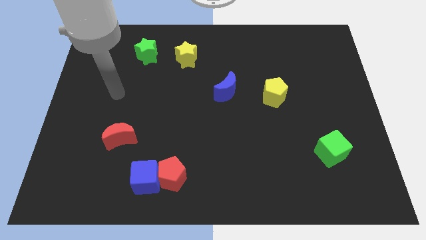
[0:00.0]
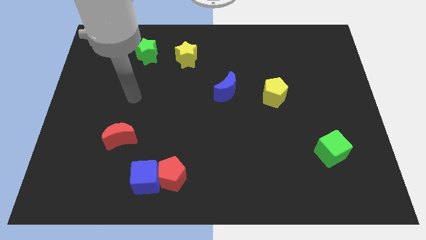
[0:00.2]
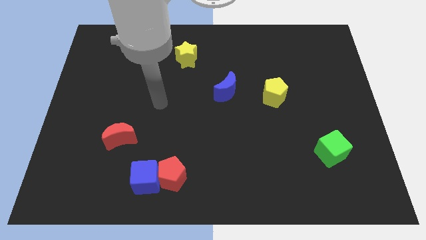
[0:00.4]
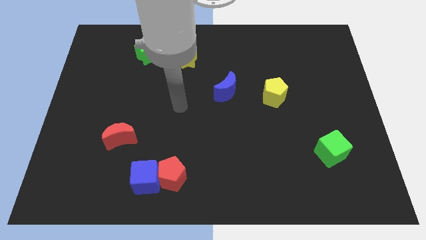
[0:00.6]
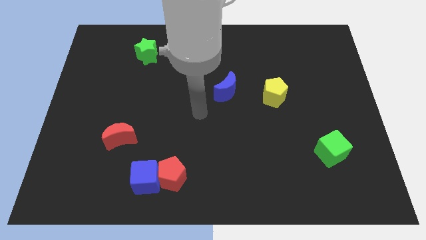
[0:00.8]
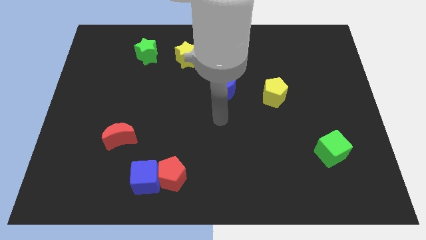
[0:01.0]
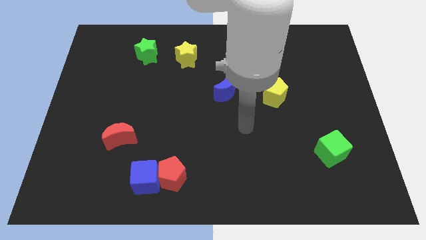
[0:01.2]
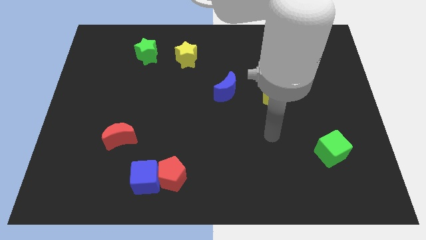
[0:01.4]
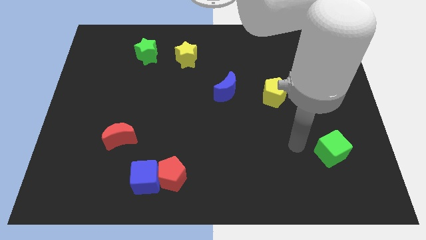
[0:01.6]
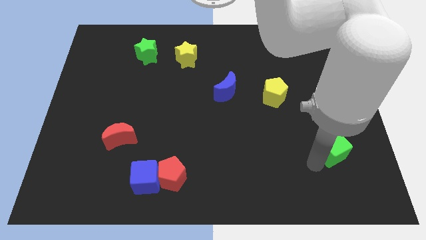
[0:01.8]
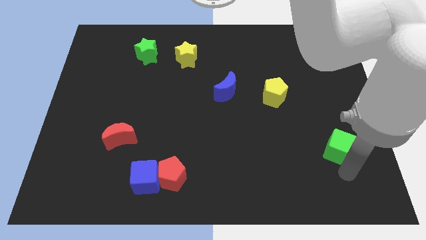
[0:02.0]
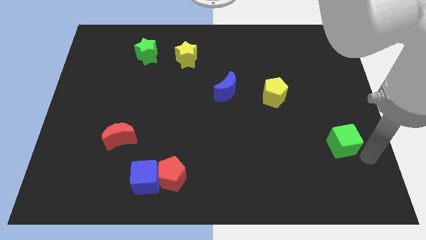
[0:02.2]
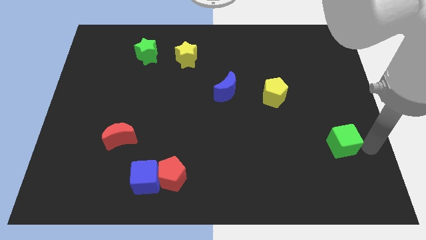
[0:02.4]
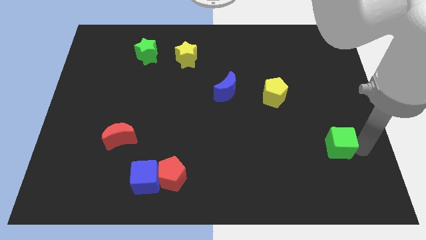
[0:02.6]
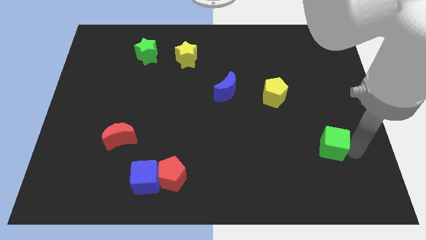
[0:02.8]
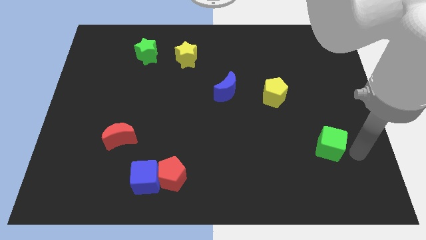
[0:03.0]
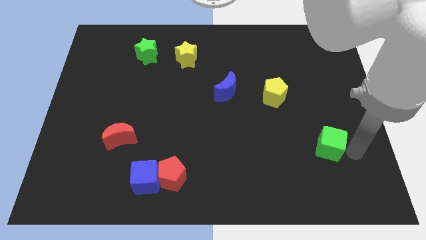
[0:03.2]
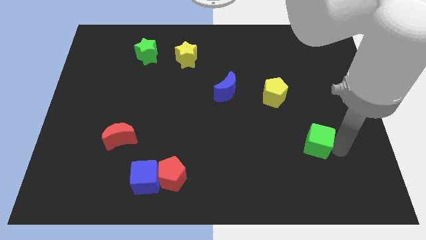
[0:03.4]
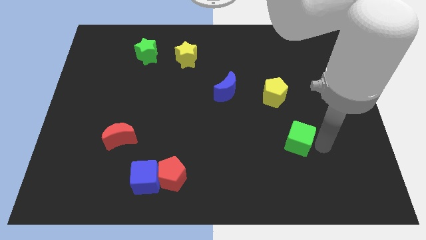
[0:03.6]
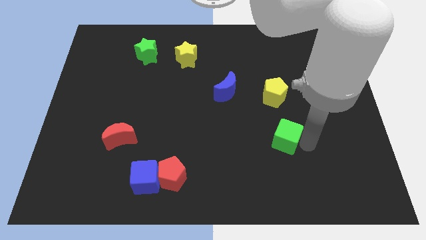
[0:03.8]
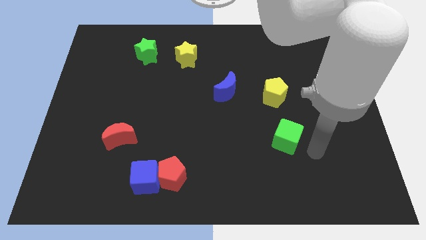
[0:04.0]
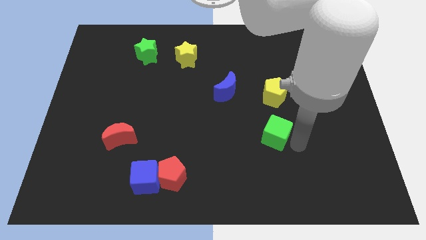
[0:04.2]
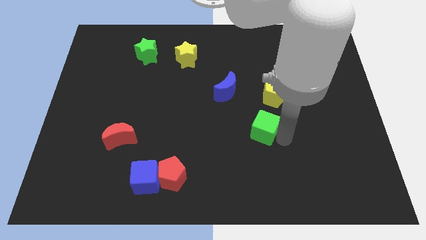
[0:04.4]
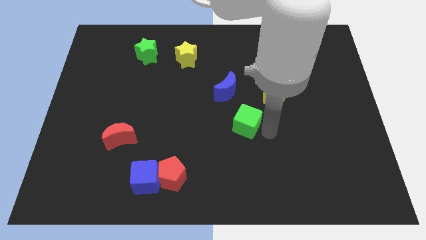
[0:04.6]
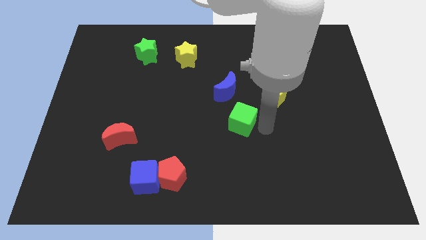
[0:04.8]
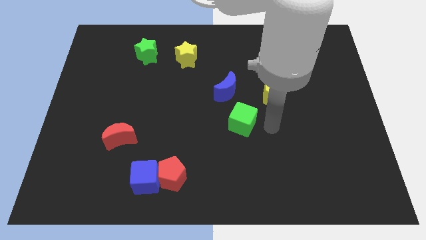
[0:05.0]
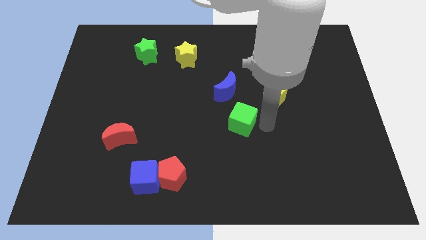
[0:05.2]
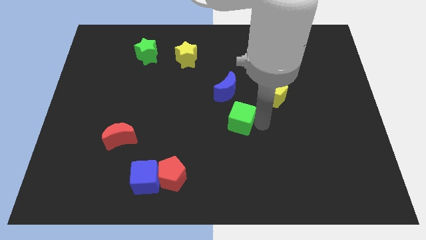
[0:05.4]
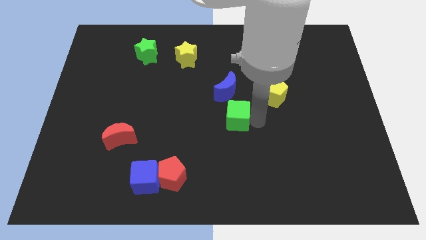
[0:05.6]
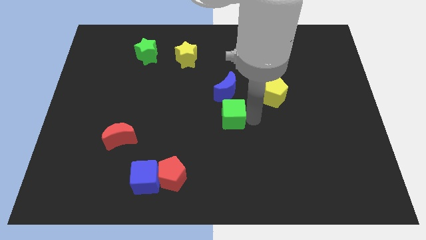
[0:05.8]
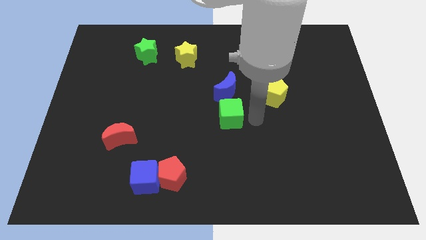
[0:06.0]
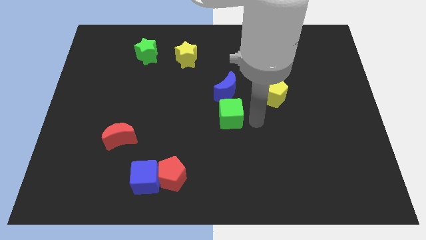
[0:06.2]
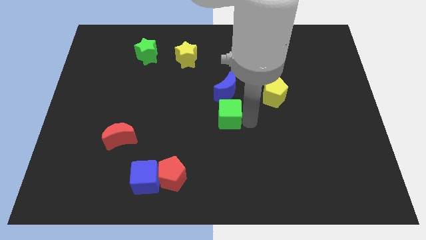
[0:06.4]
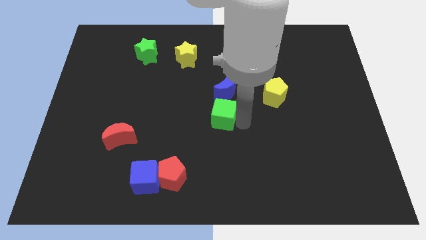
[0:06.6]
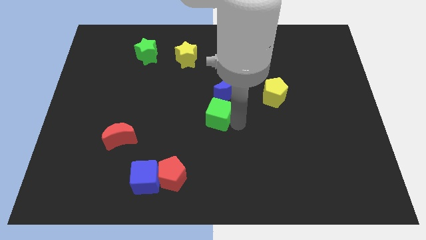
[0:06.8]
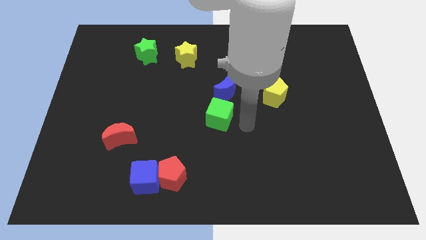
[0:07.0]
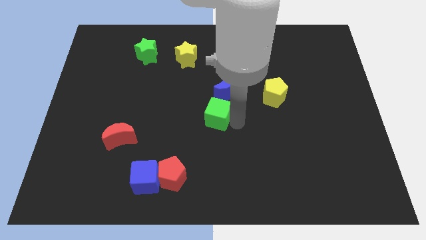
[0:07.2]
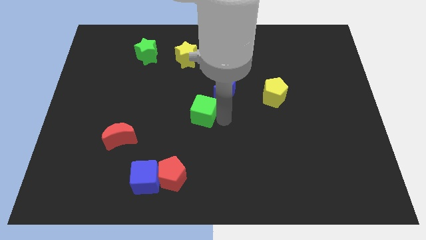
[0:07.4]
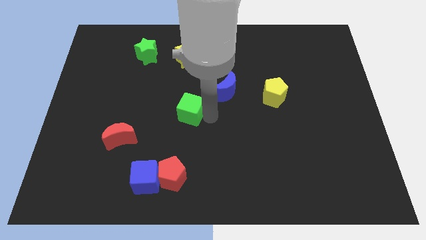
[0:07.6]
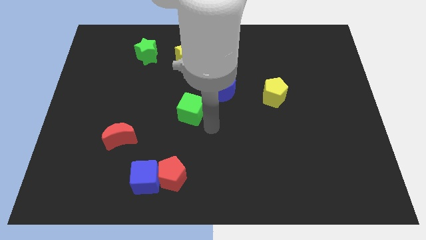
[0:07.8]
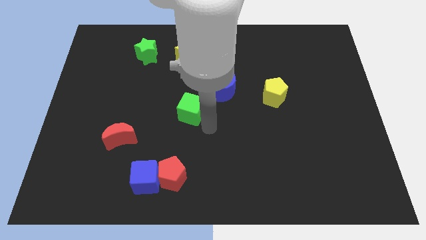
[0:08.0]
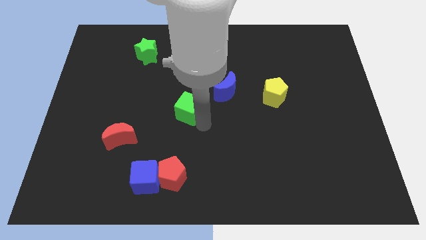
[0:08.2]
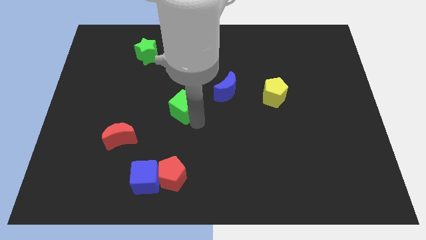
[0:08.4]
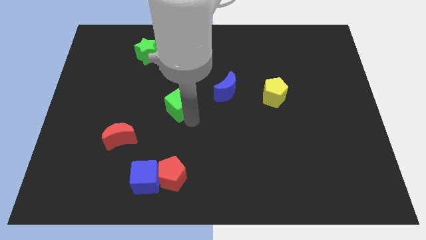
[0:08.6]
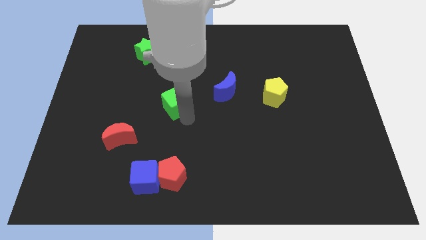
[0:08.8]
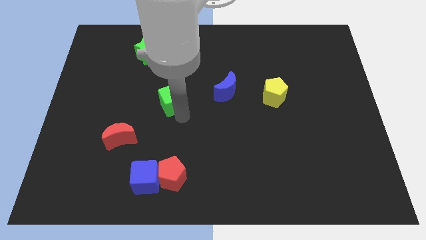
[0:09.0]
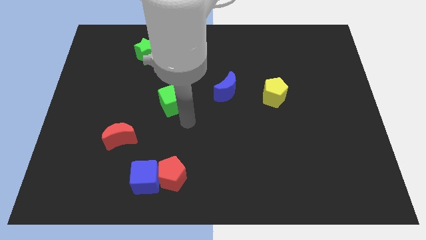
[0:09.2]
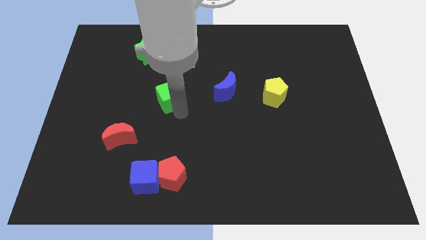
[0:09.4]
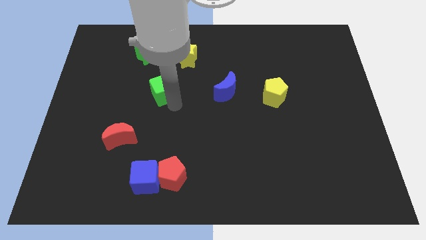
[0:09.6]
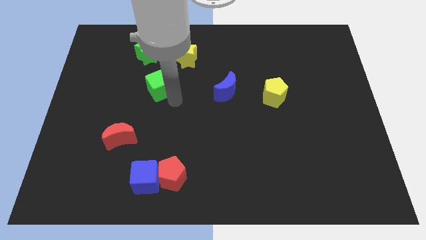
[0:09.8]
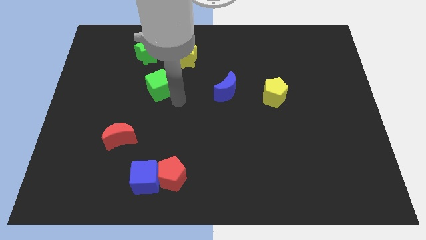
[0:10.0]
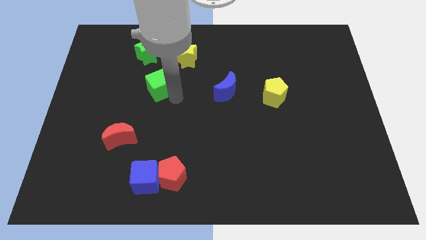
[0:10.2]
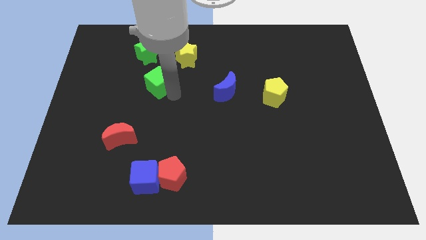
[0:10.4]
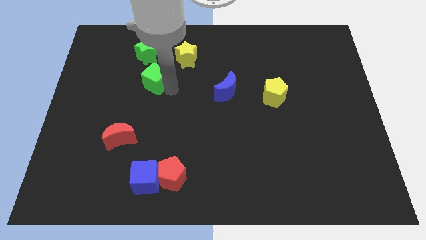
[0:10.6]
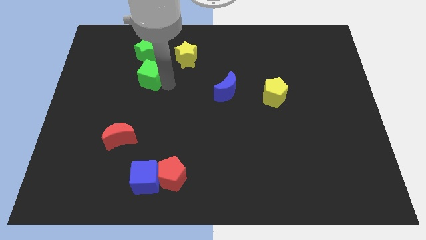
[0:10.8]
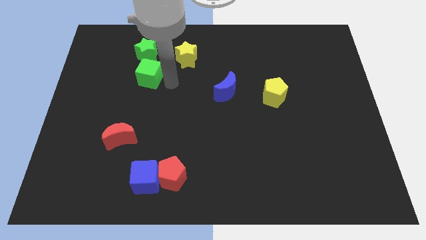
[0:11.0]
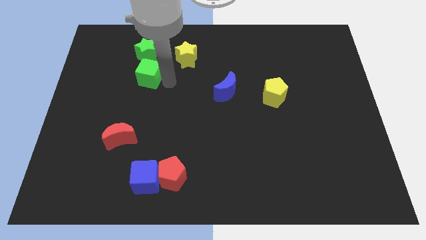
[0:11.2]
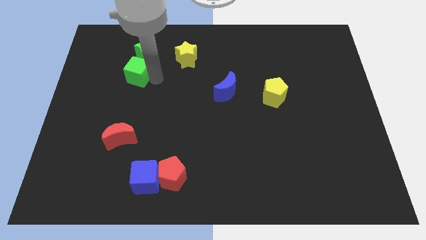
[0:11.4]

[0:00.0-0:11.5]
put the green cube to the bottom left side of the green star
